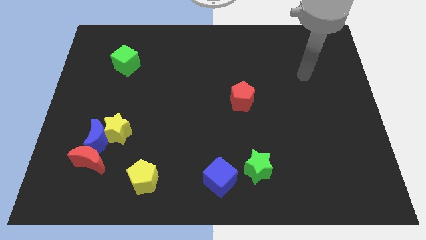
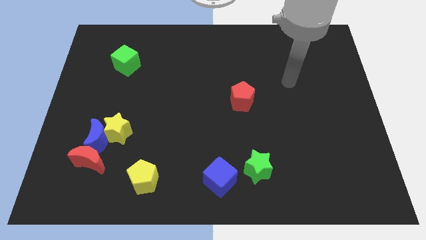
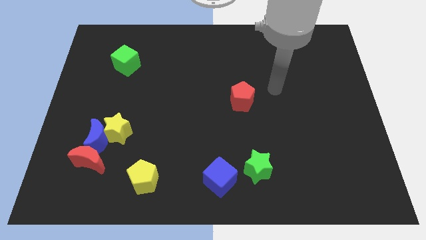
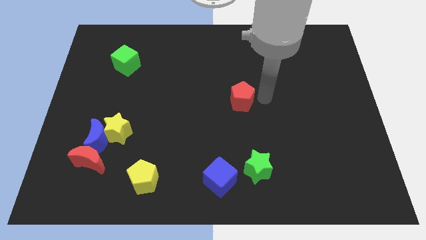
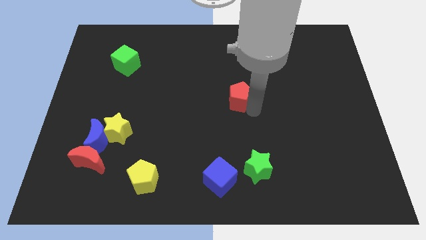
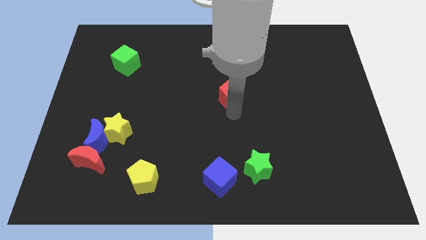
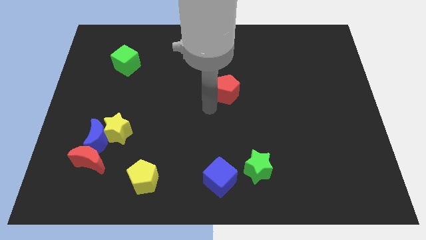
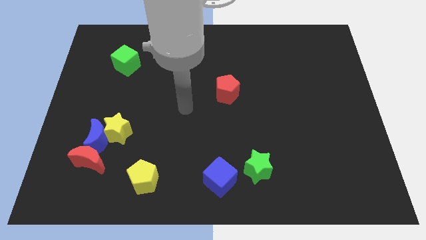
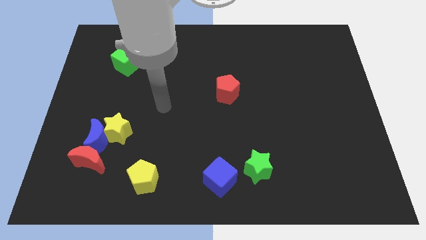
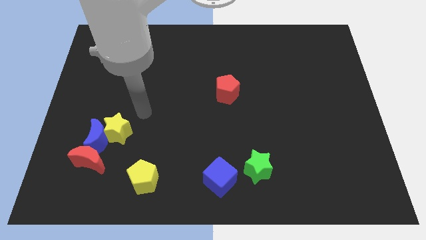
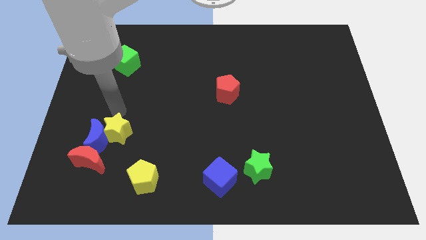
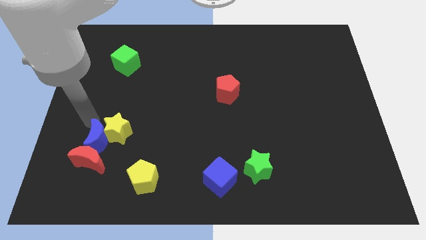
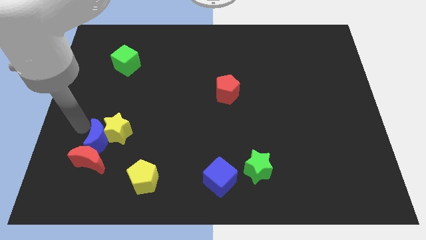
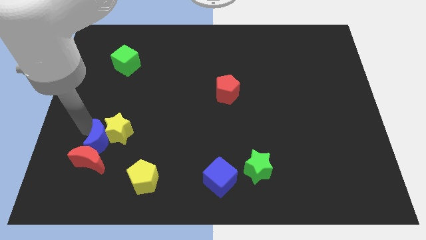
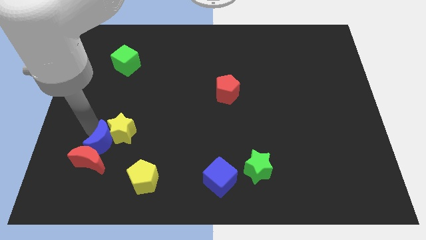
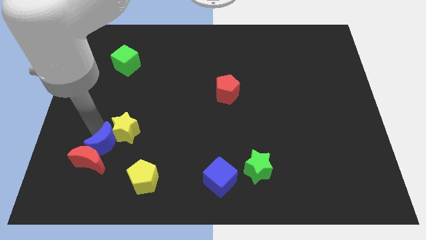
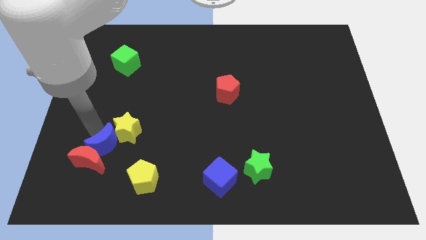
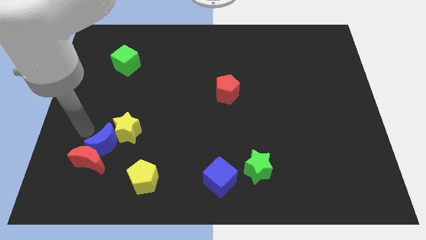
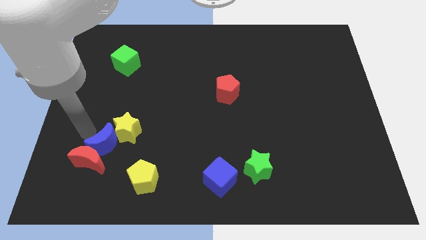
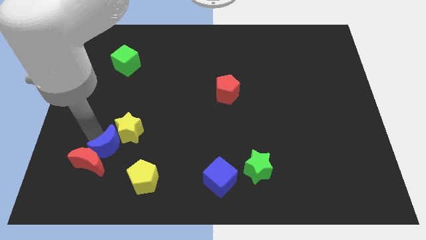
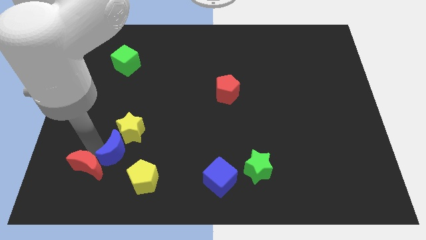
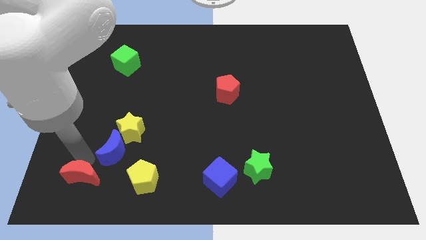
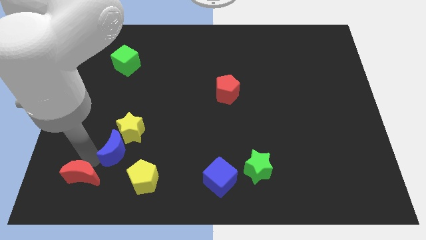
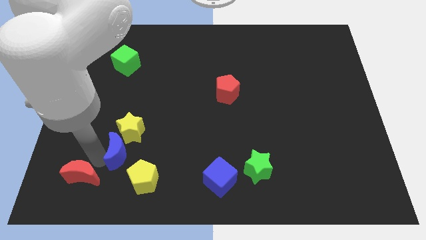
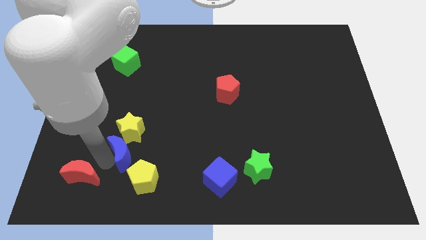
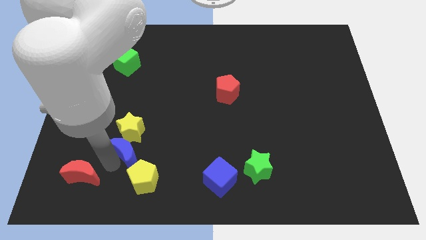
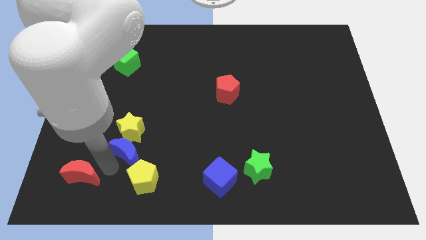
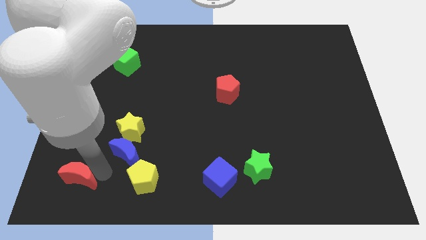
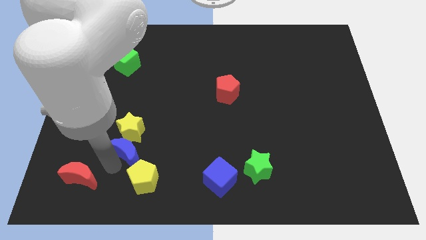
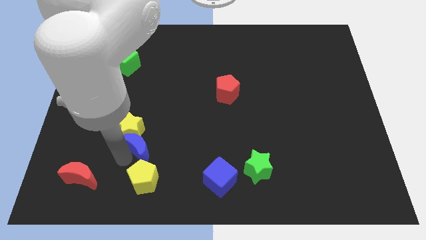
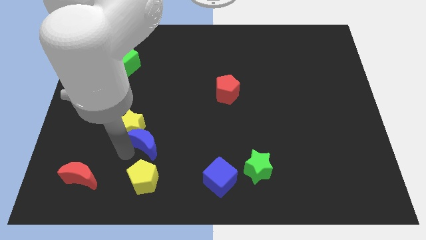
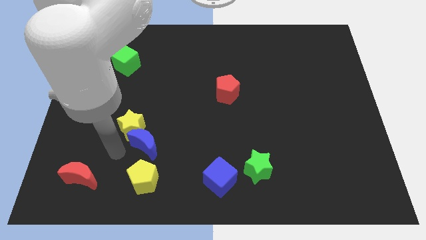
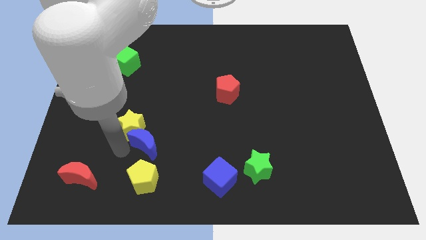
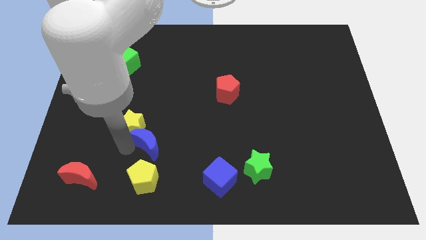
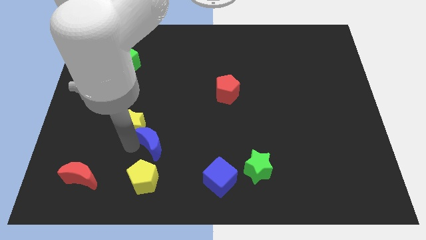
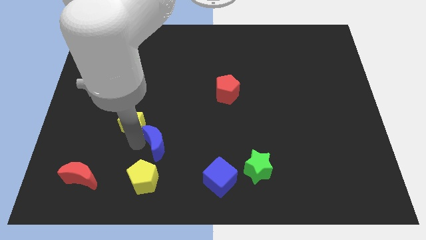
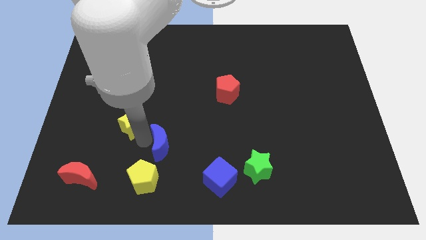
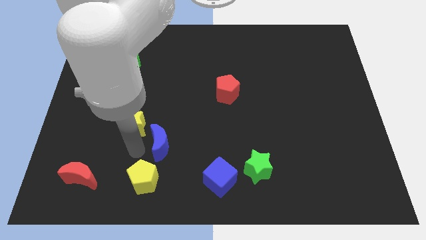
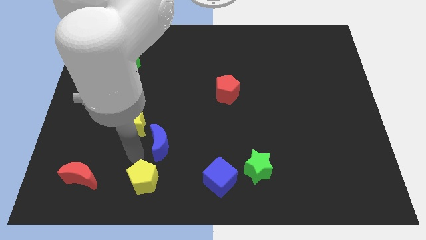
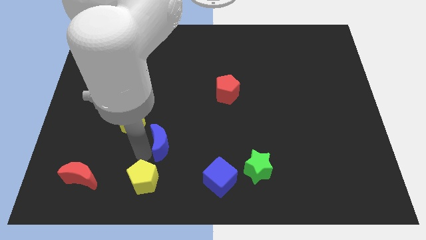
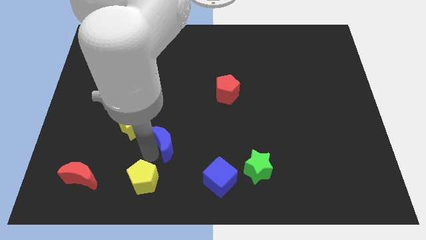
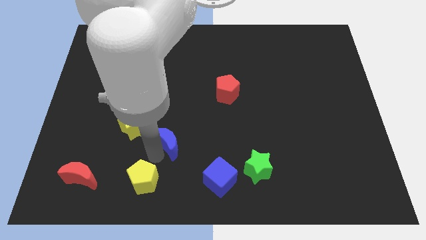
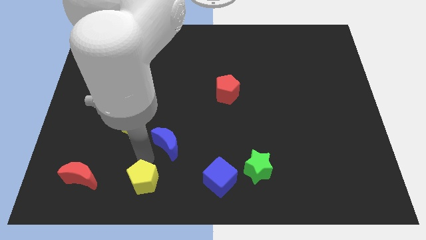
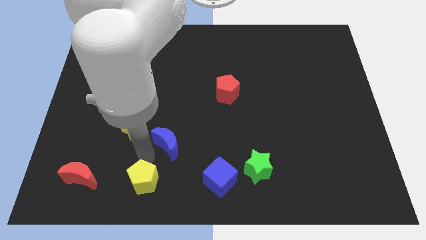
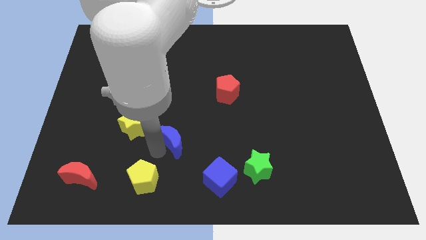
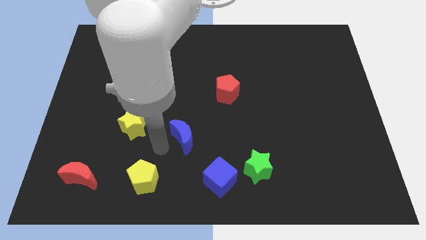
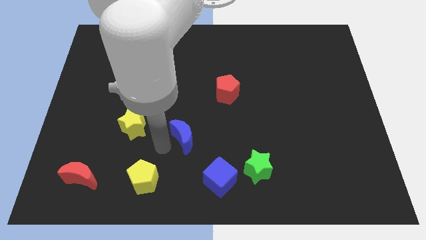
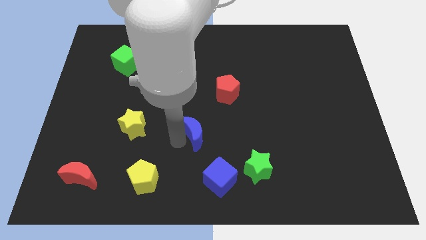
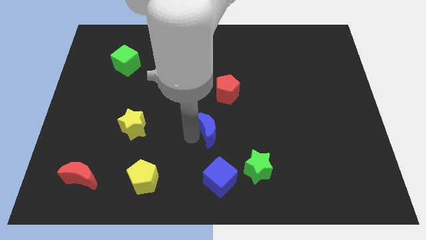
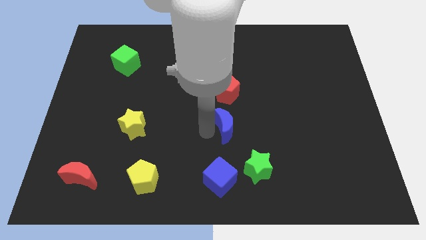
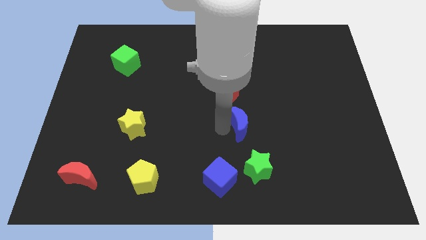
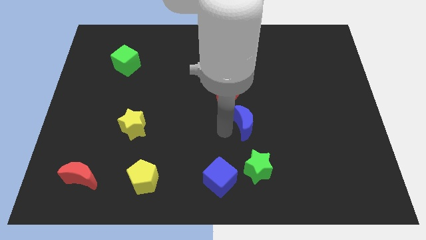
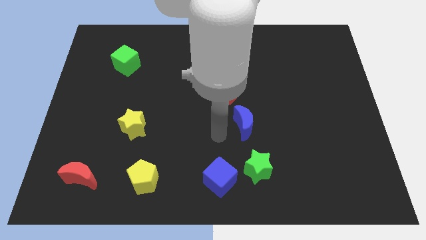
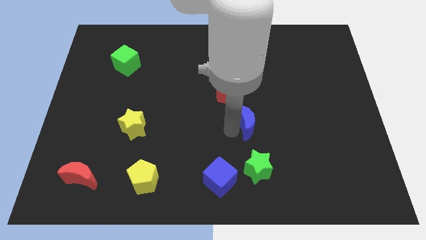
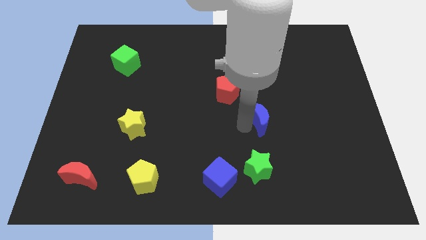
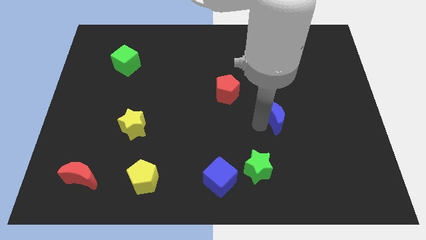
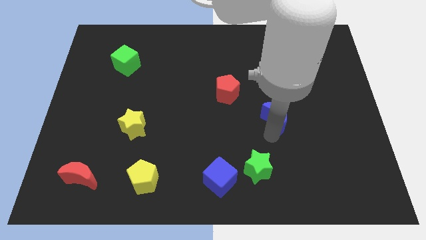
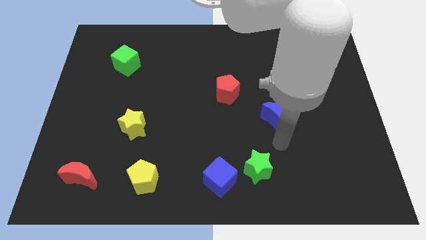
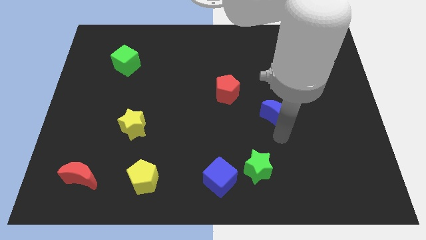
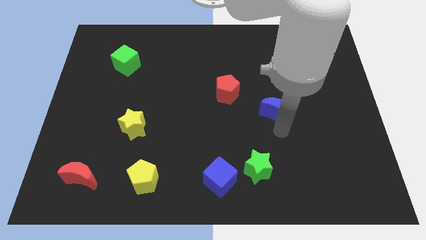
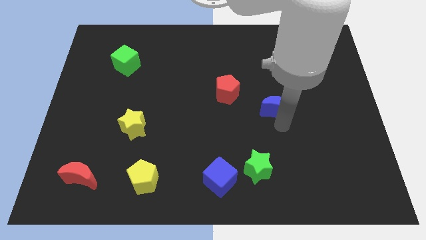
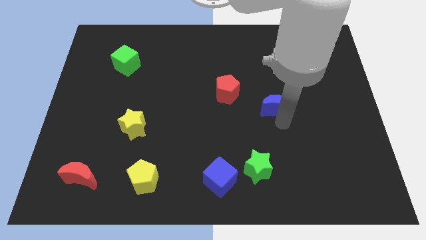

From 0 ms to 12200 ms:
slide the blue moon to the right side of the red pentagon

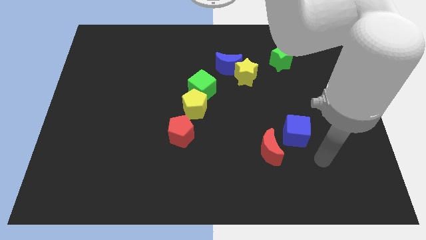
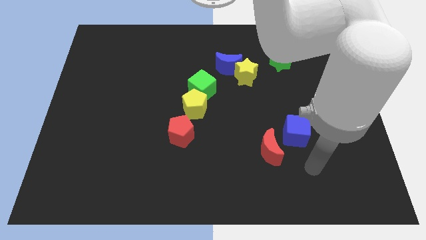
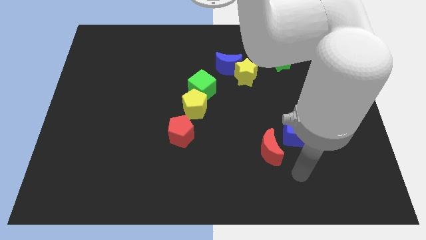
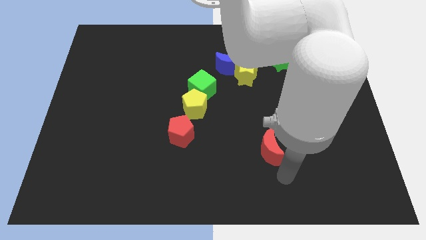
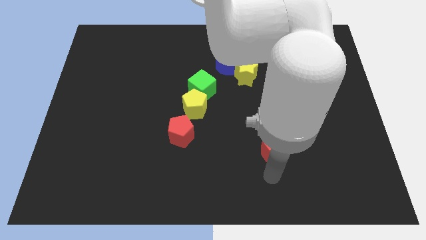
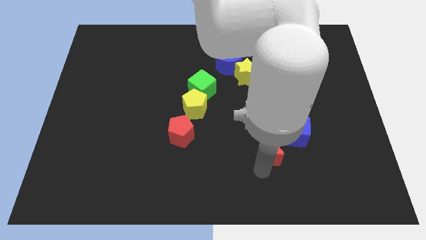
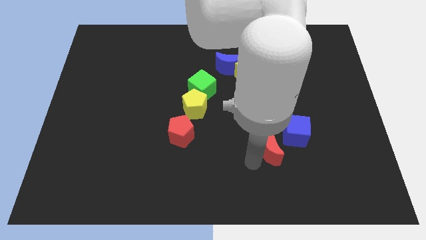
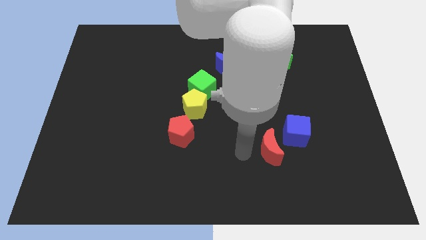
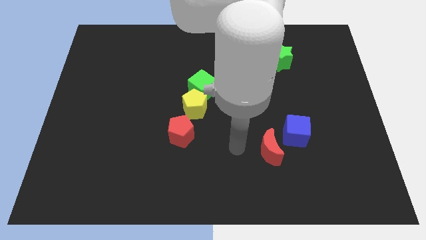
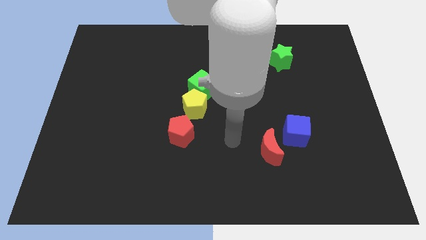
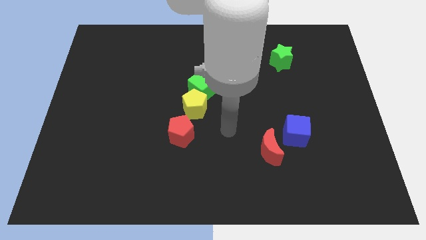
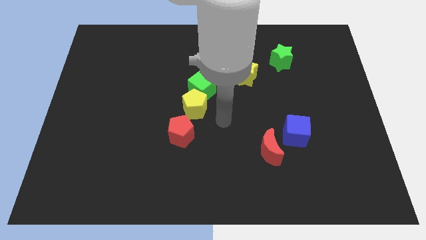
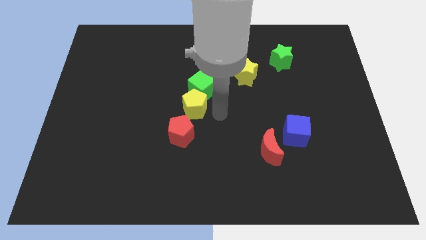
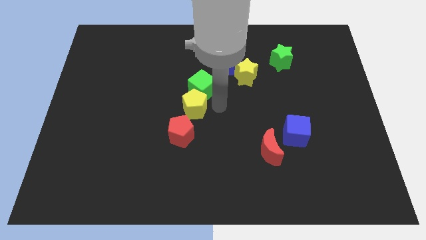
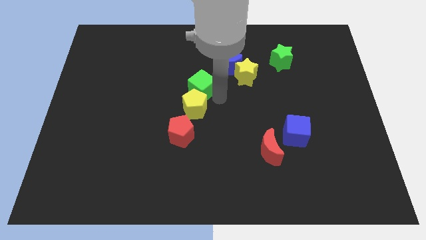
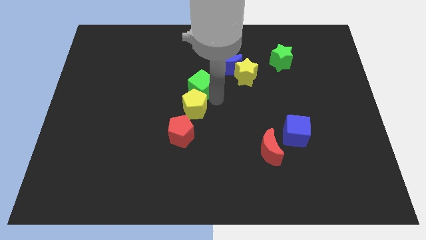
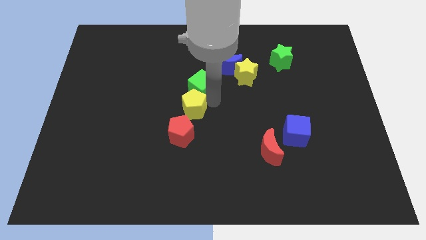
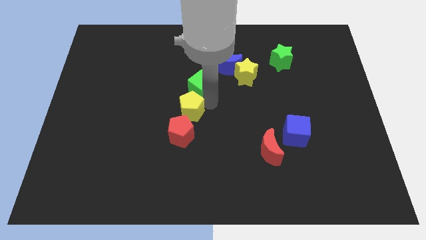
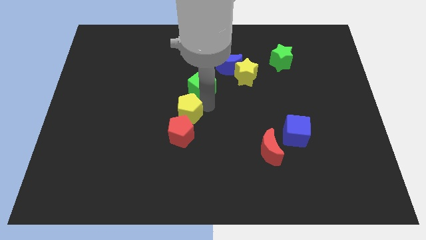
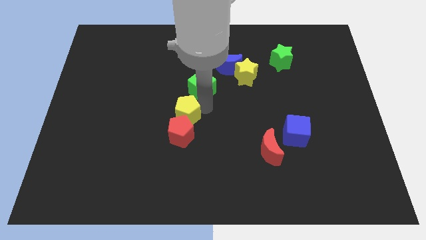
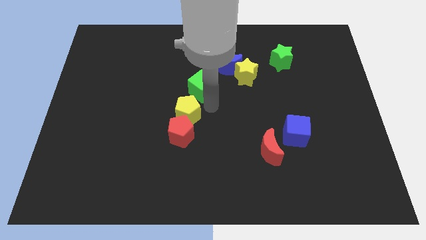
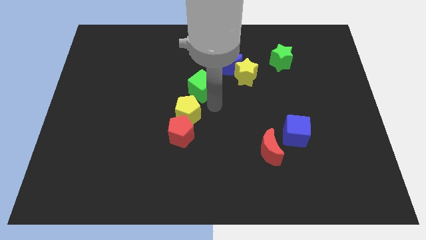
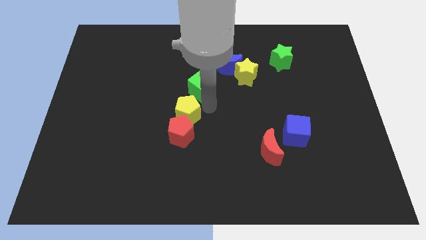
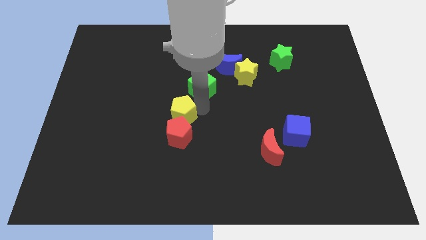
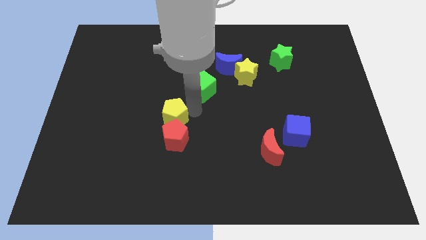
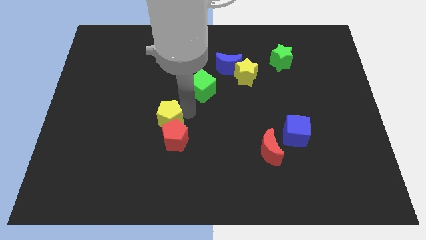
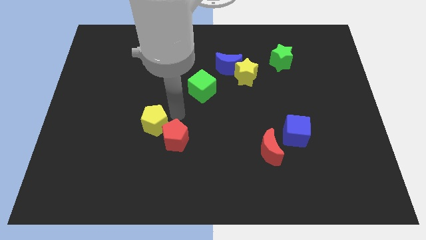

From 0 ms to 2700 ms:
push the yellow pentagon to the left side of the red pentagon
